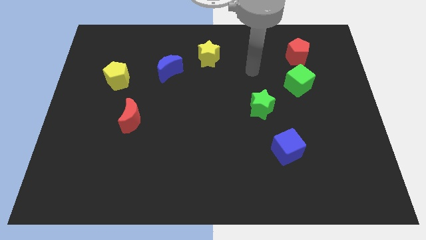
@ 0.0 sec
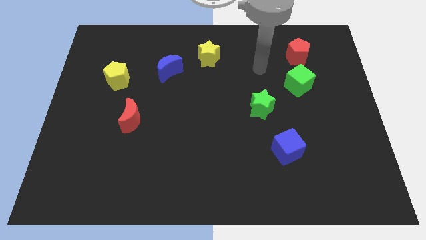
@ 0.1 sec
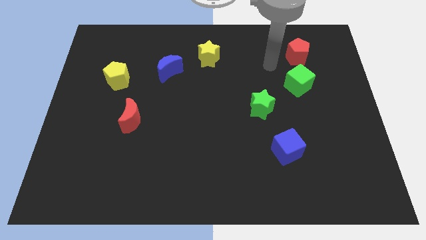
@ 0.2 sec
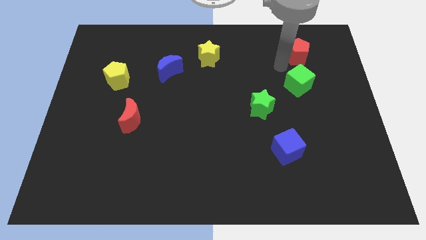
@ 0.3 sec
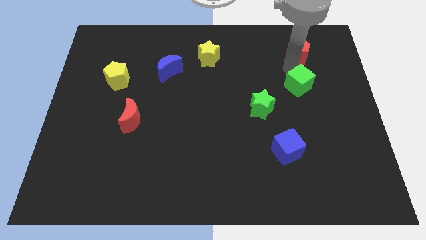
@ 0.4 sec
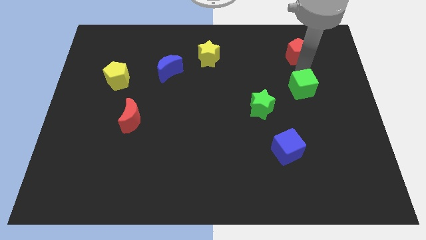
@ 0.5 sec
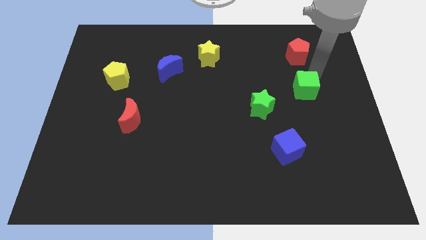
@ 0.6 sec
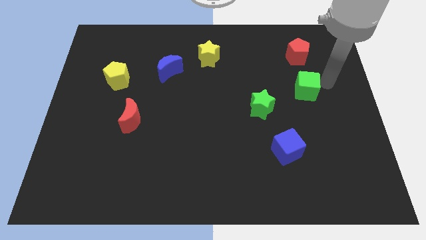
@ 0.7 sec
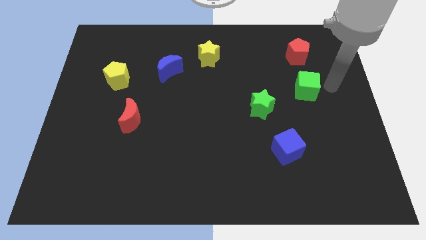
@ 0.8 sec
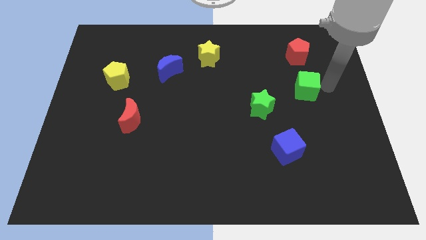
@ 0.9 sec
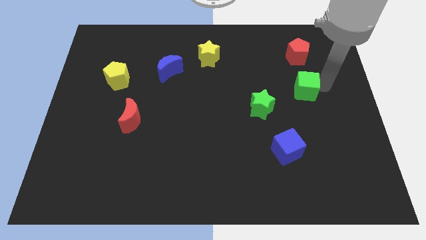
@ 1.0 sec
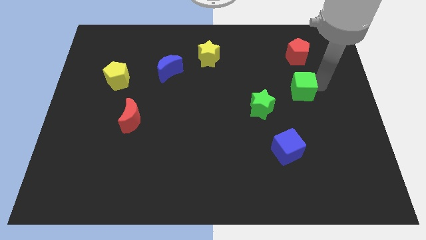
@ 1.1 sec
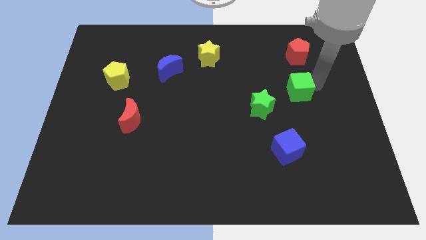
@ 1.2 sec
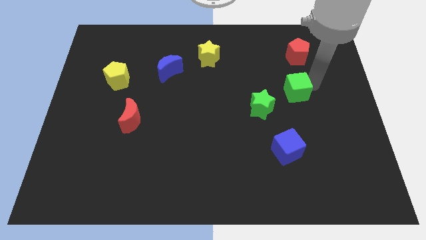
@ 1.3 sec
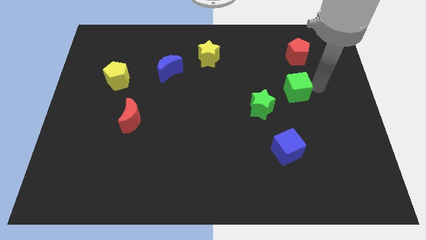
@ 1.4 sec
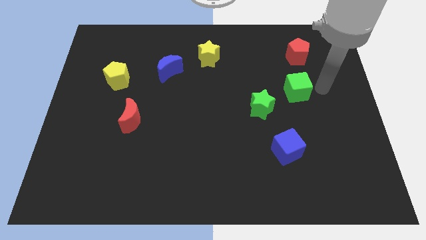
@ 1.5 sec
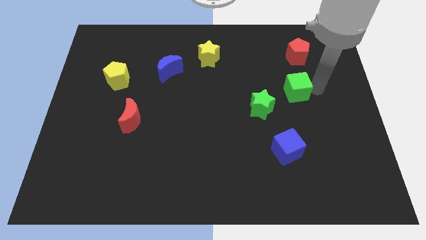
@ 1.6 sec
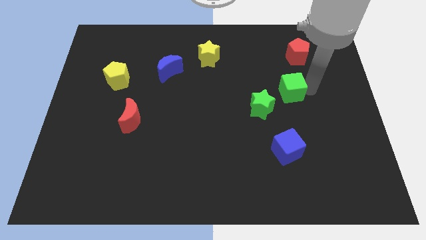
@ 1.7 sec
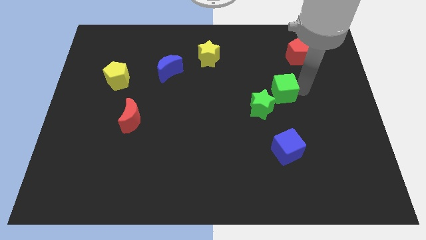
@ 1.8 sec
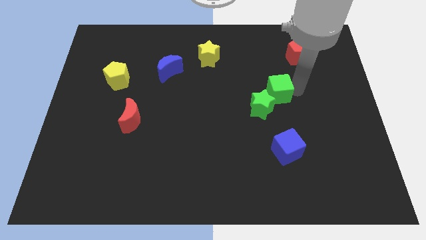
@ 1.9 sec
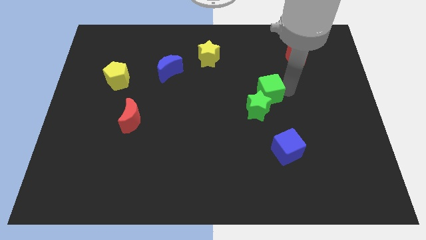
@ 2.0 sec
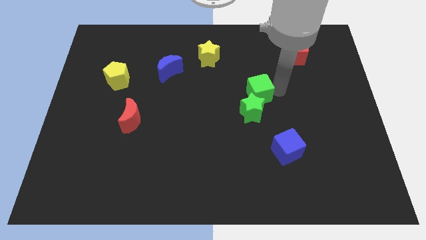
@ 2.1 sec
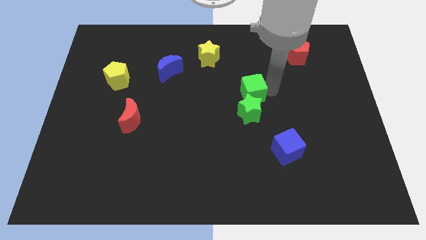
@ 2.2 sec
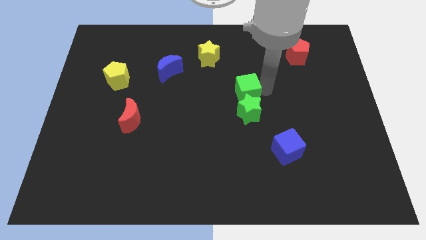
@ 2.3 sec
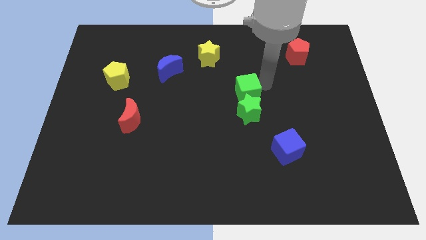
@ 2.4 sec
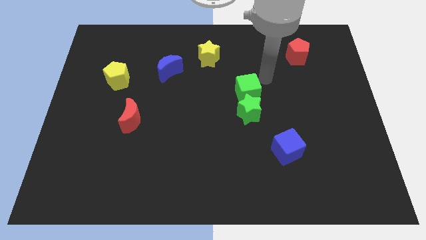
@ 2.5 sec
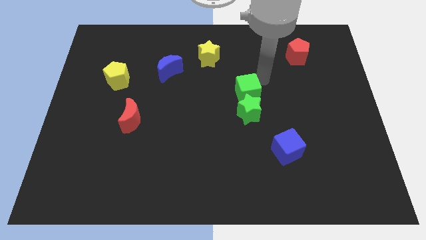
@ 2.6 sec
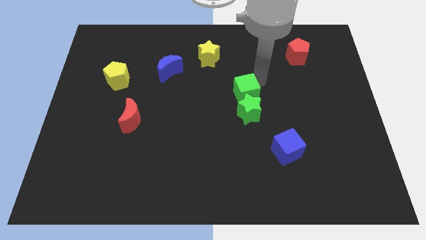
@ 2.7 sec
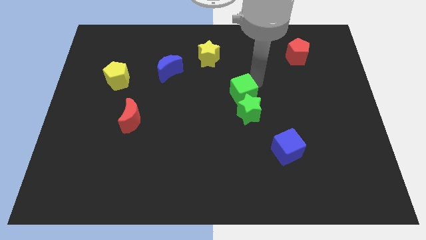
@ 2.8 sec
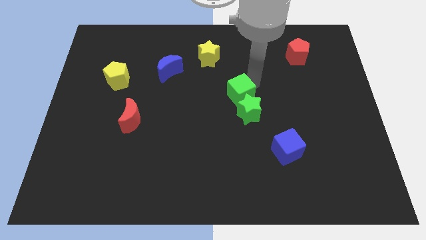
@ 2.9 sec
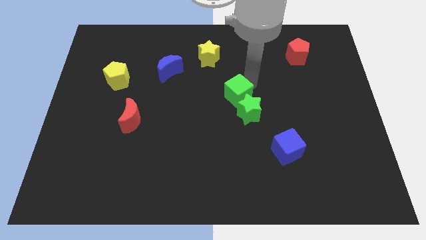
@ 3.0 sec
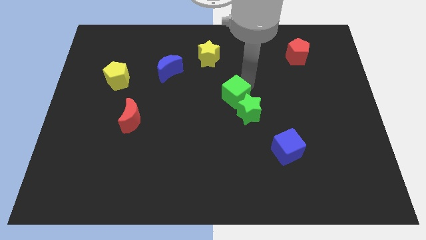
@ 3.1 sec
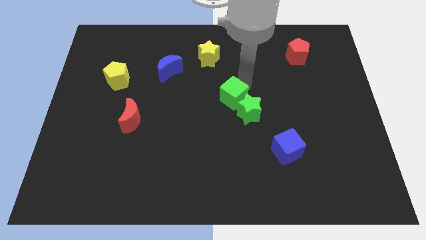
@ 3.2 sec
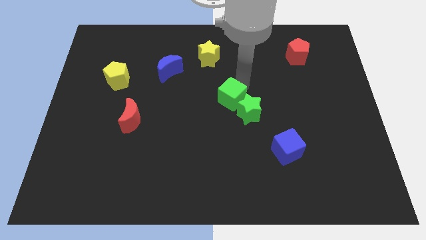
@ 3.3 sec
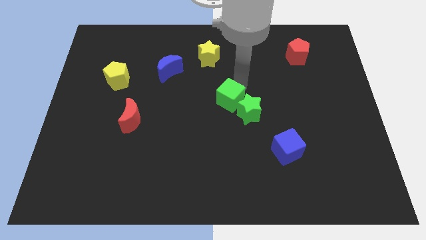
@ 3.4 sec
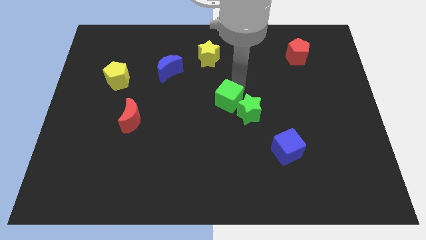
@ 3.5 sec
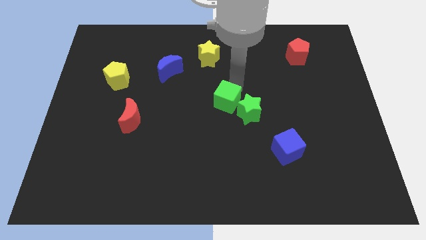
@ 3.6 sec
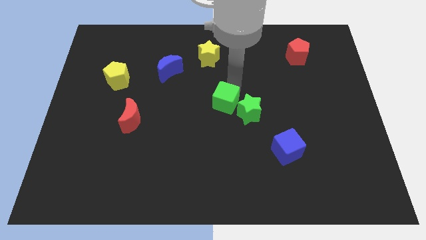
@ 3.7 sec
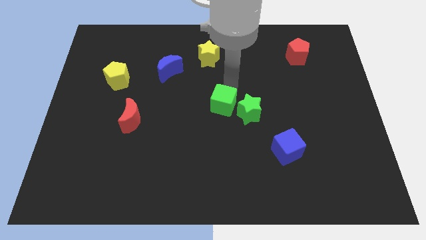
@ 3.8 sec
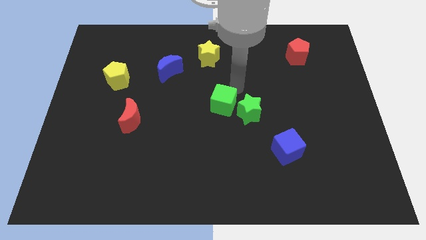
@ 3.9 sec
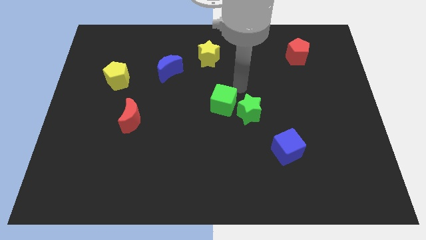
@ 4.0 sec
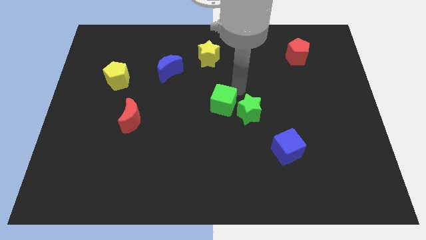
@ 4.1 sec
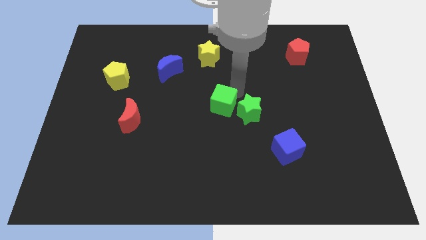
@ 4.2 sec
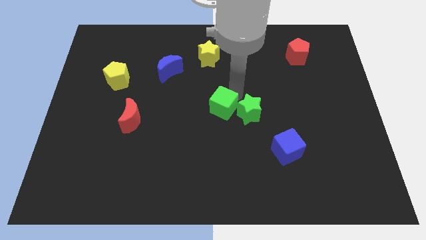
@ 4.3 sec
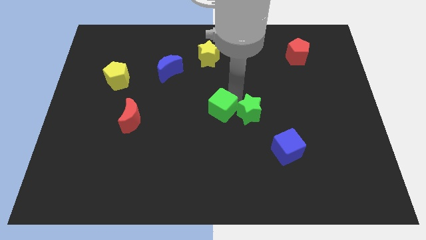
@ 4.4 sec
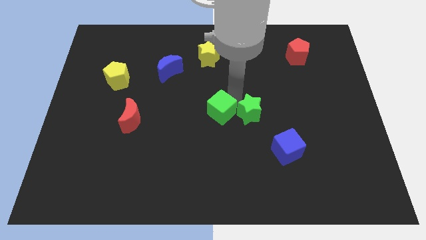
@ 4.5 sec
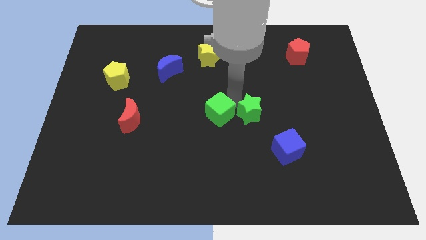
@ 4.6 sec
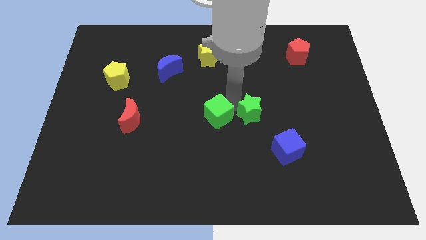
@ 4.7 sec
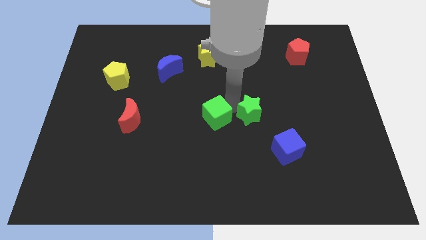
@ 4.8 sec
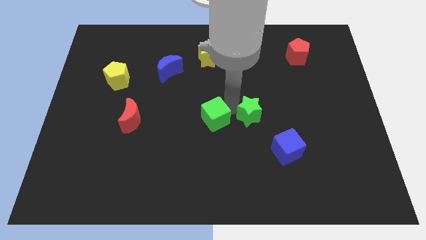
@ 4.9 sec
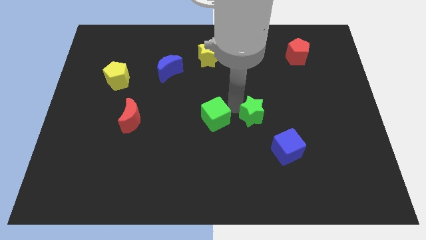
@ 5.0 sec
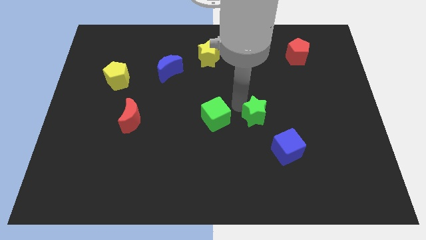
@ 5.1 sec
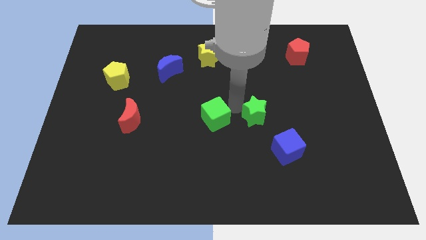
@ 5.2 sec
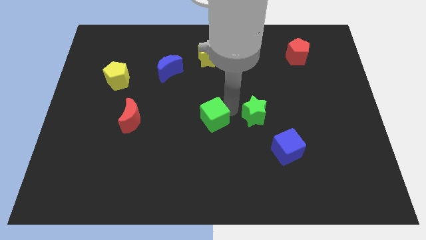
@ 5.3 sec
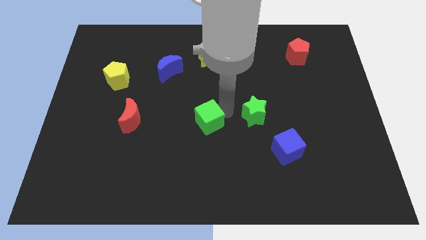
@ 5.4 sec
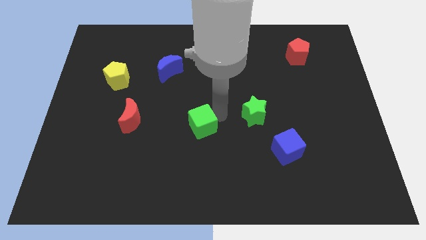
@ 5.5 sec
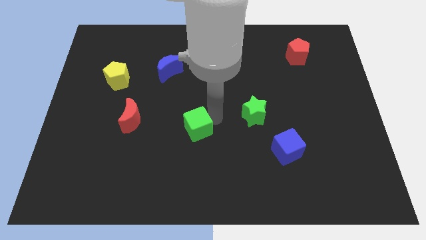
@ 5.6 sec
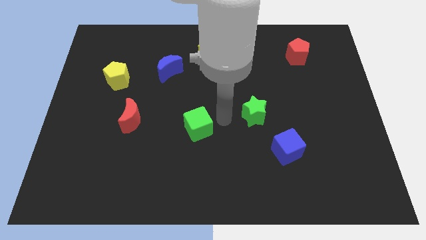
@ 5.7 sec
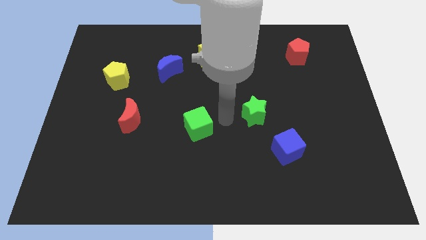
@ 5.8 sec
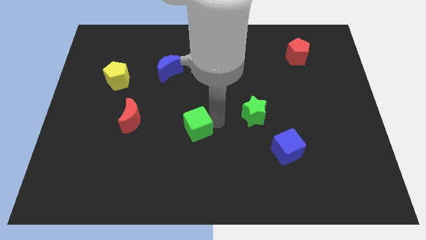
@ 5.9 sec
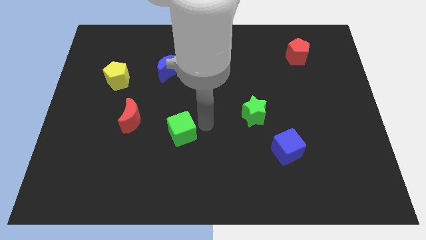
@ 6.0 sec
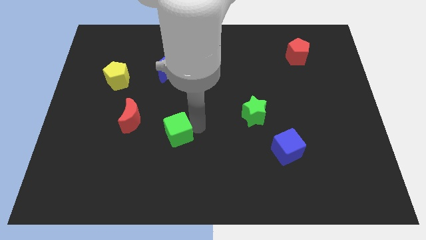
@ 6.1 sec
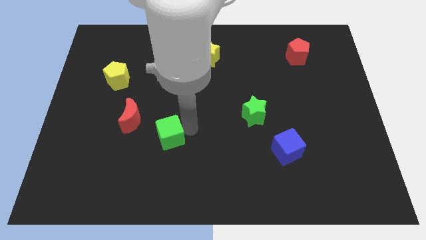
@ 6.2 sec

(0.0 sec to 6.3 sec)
slide the green cube diagonally down and to the right of the red moon

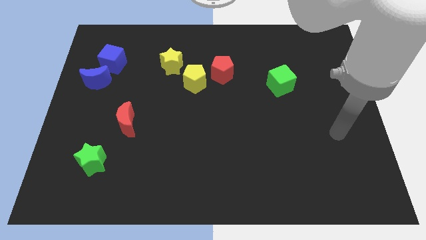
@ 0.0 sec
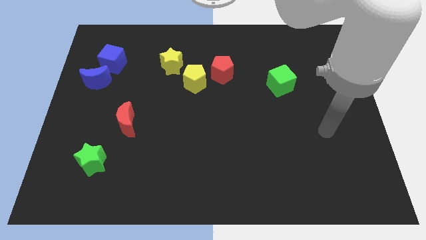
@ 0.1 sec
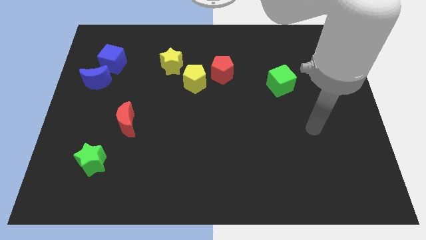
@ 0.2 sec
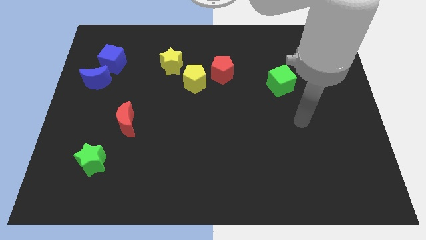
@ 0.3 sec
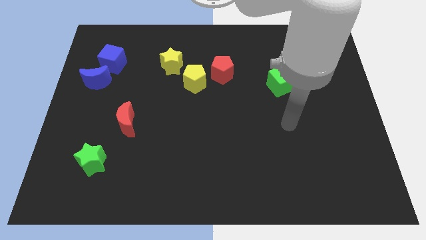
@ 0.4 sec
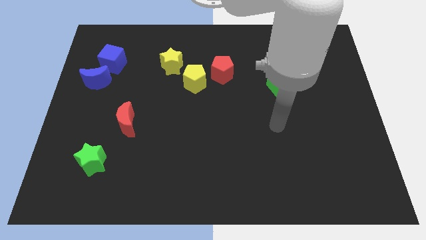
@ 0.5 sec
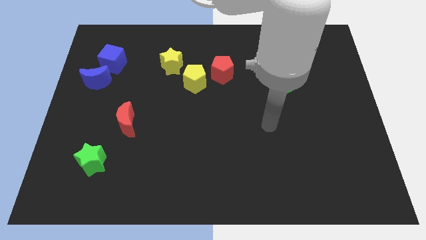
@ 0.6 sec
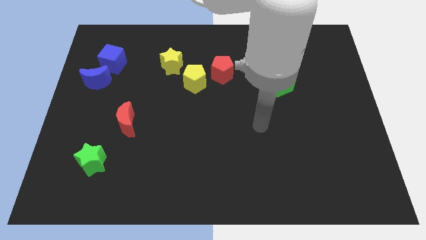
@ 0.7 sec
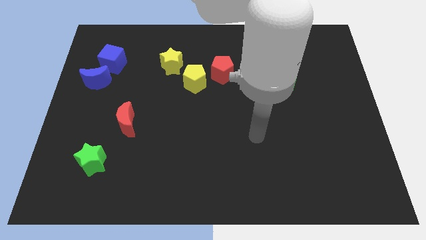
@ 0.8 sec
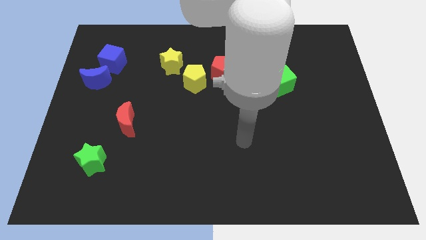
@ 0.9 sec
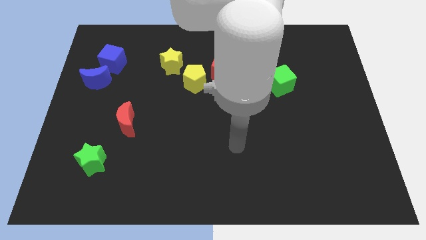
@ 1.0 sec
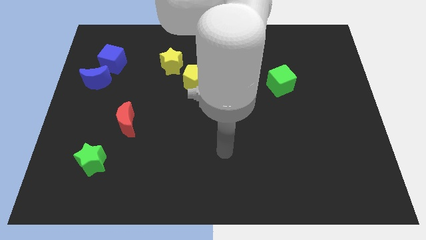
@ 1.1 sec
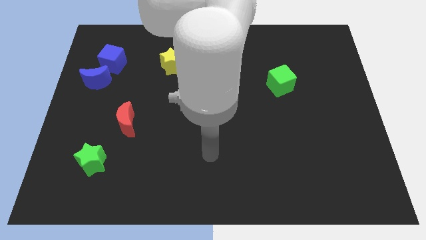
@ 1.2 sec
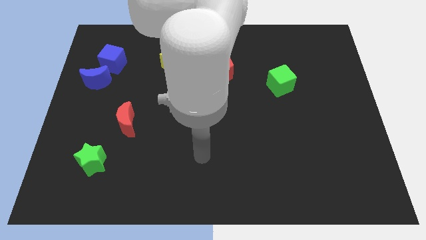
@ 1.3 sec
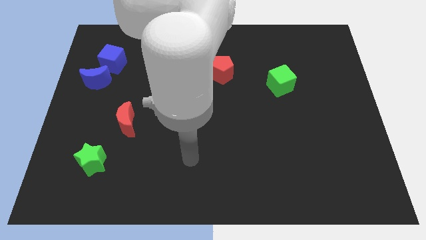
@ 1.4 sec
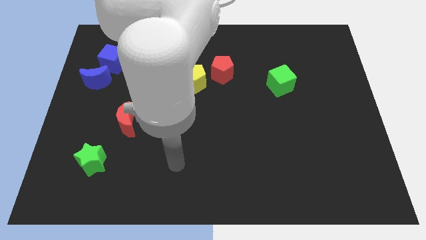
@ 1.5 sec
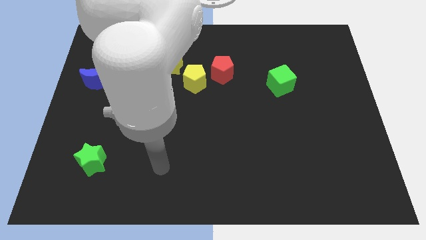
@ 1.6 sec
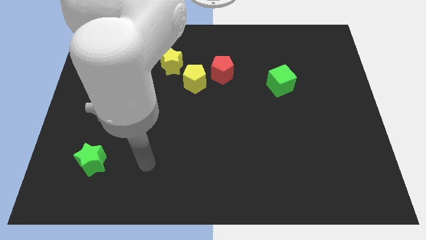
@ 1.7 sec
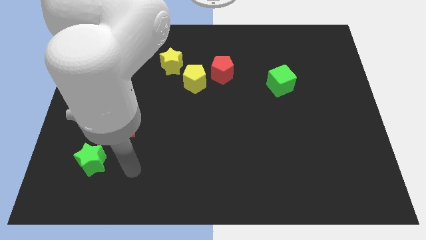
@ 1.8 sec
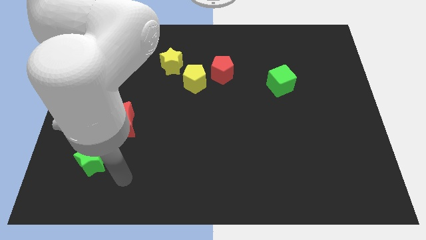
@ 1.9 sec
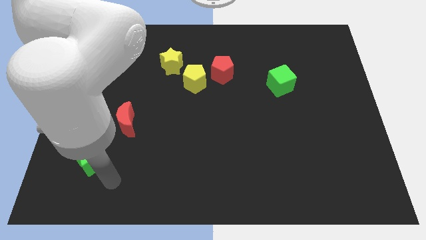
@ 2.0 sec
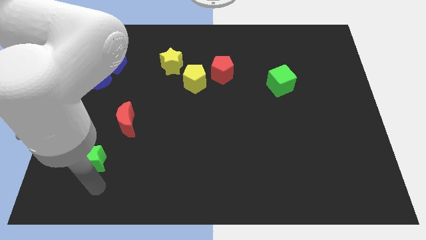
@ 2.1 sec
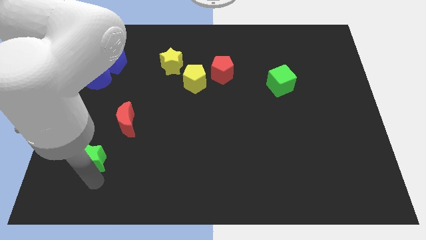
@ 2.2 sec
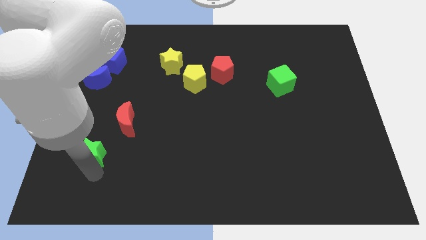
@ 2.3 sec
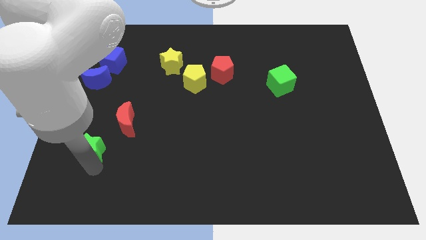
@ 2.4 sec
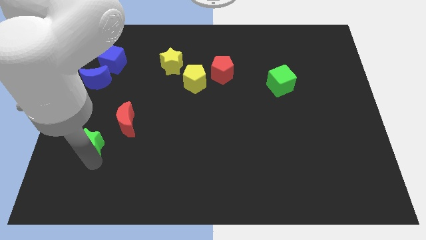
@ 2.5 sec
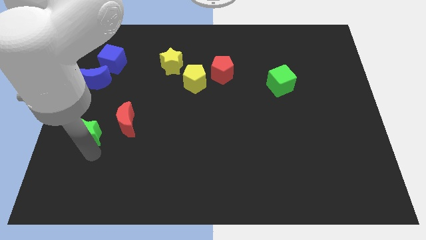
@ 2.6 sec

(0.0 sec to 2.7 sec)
move the green star to the bottom side of the blue moon
